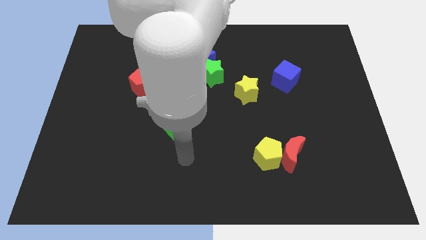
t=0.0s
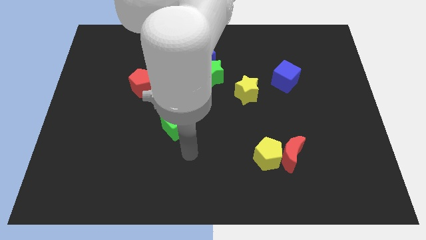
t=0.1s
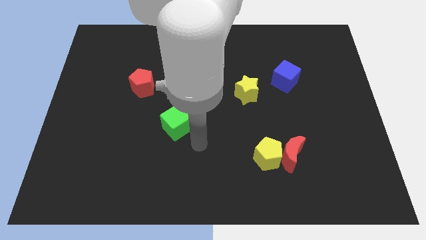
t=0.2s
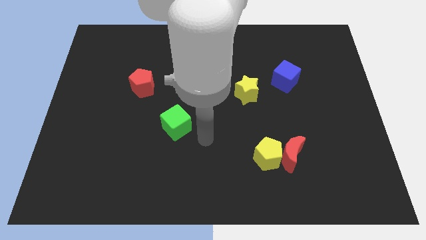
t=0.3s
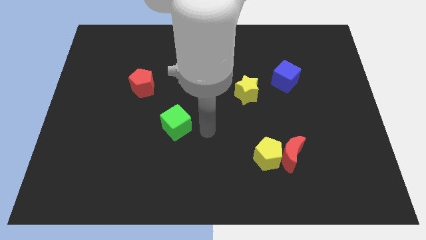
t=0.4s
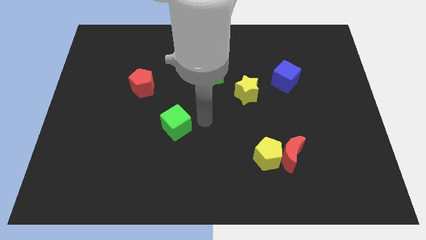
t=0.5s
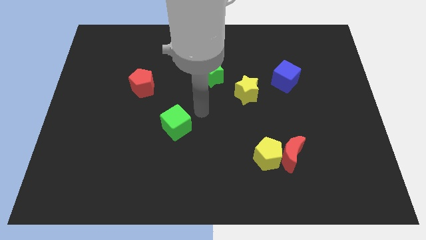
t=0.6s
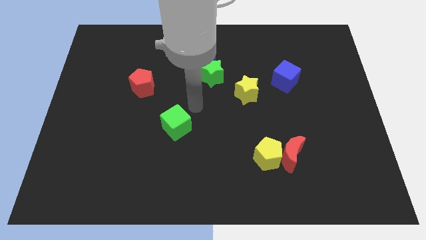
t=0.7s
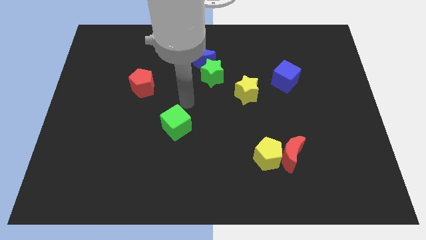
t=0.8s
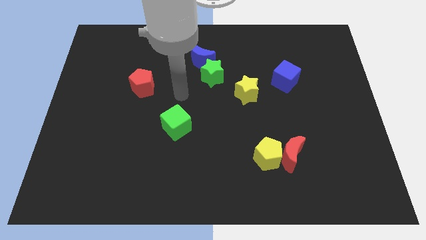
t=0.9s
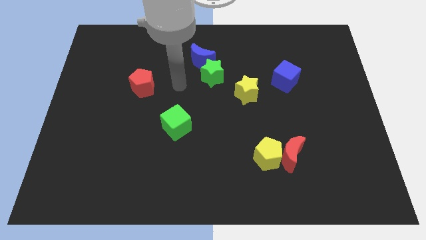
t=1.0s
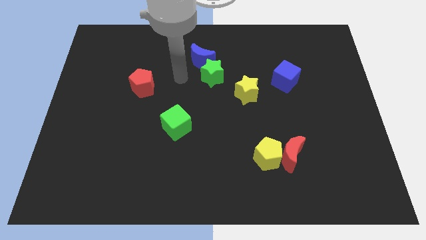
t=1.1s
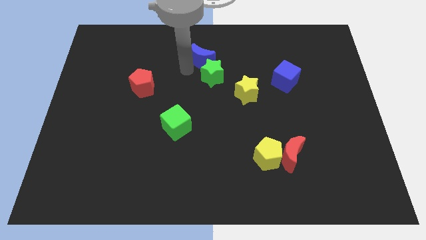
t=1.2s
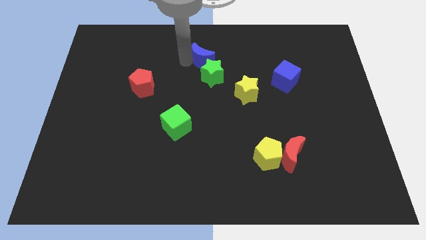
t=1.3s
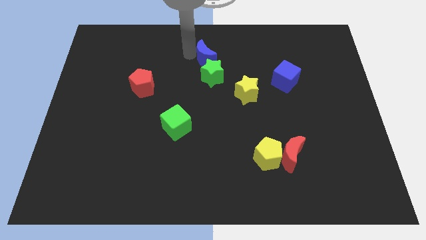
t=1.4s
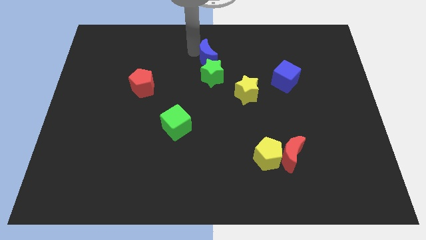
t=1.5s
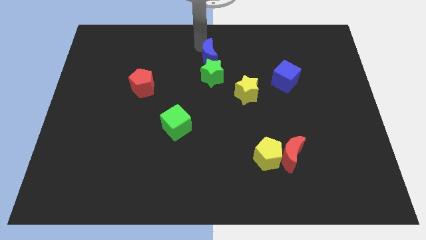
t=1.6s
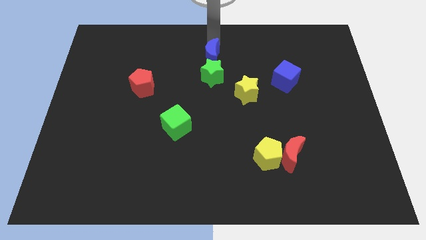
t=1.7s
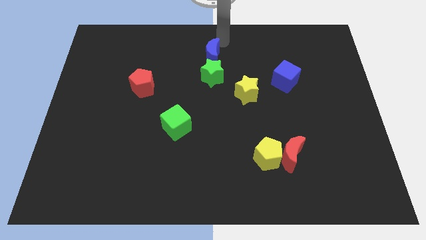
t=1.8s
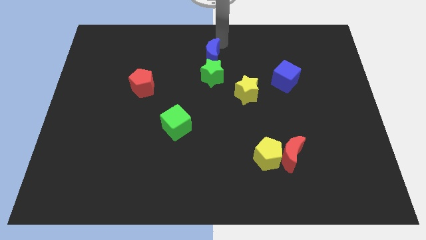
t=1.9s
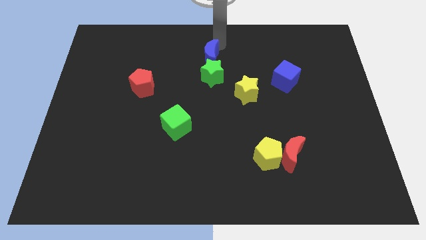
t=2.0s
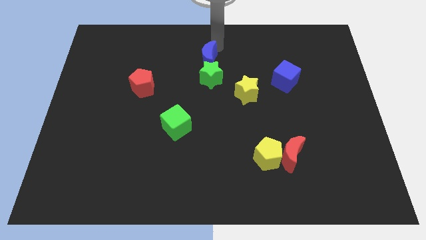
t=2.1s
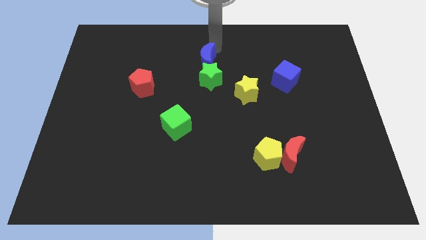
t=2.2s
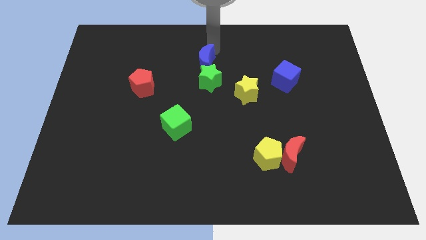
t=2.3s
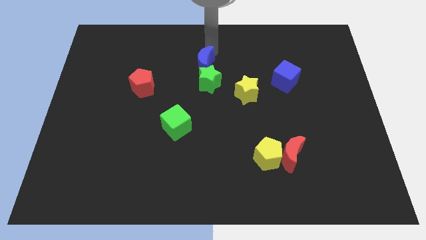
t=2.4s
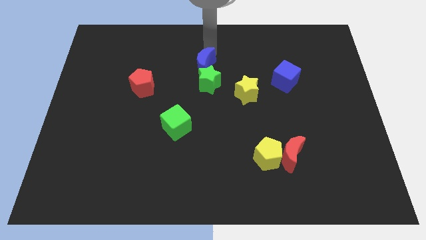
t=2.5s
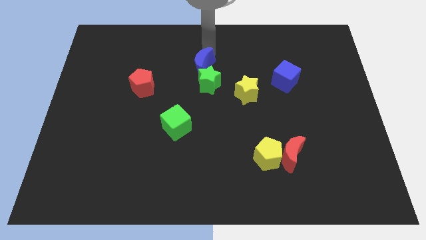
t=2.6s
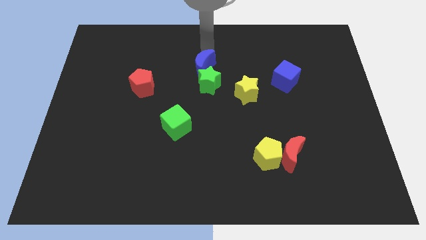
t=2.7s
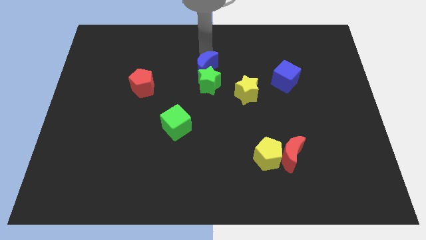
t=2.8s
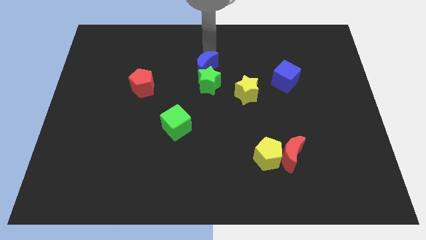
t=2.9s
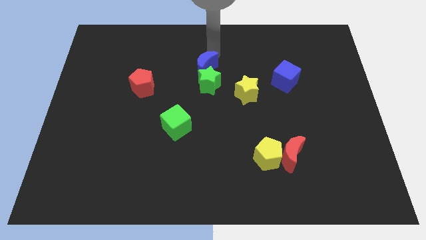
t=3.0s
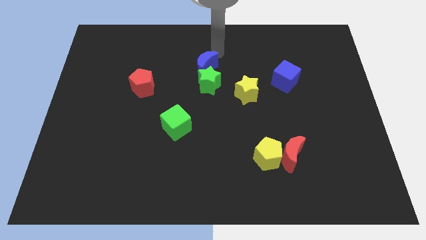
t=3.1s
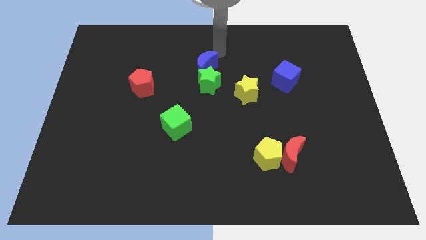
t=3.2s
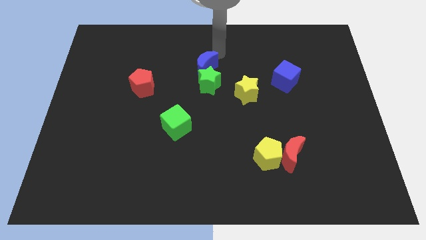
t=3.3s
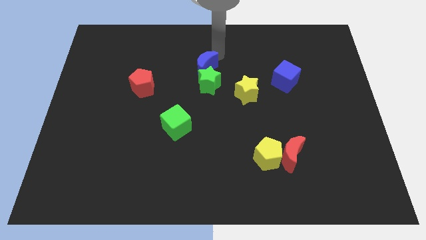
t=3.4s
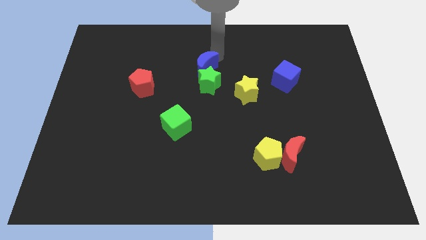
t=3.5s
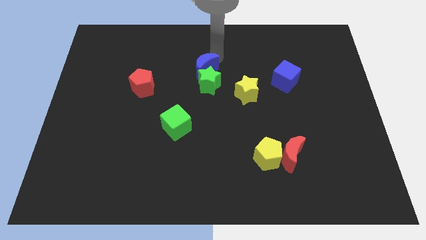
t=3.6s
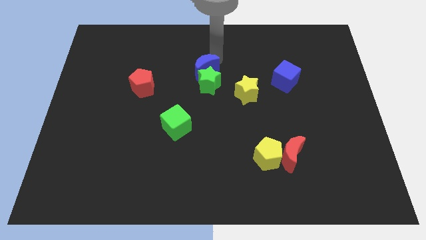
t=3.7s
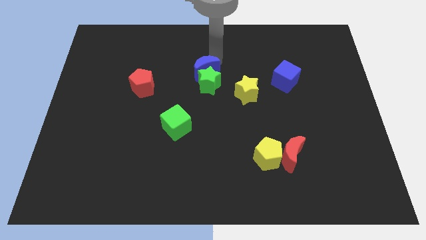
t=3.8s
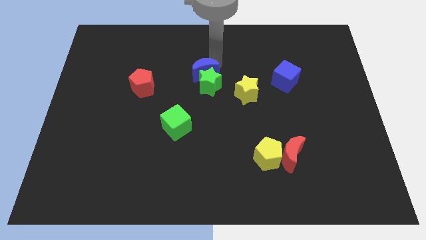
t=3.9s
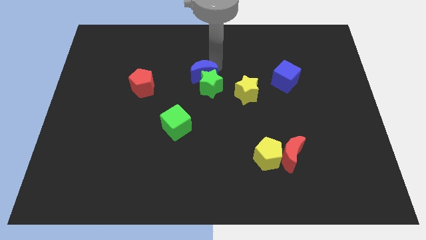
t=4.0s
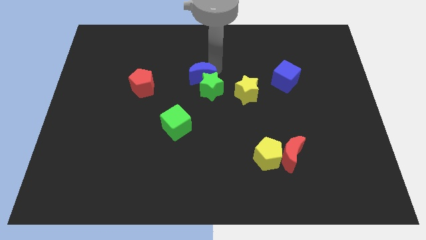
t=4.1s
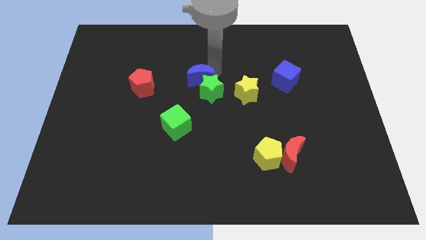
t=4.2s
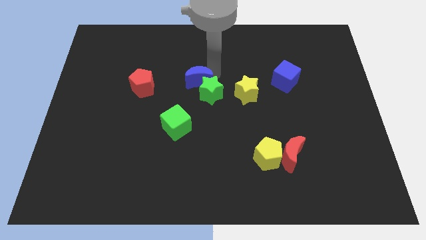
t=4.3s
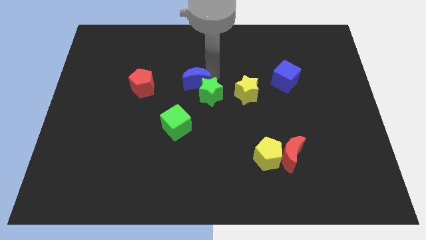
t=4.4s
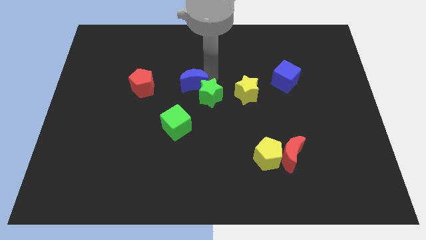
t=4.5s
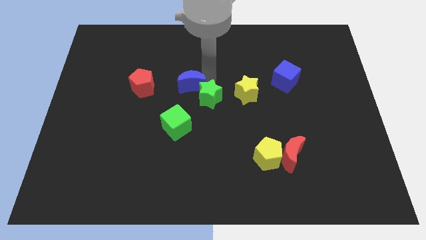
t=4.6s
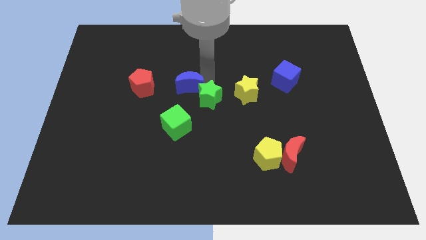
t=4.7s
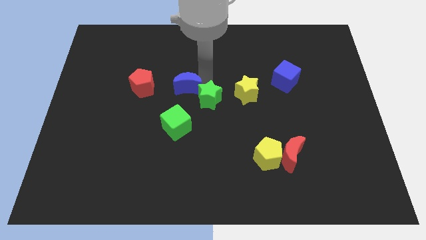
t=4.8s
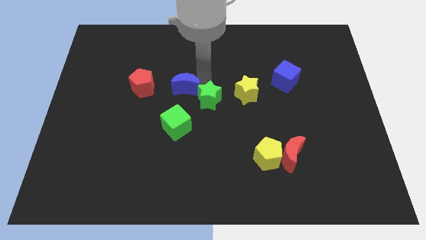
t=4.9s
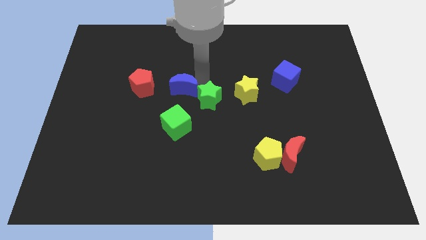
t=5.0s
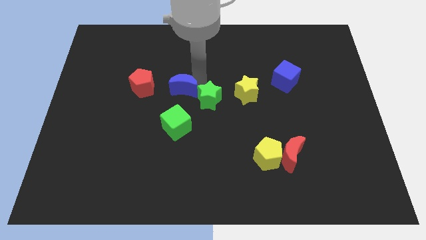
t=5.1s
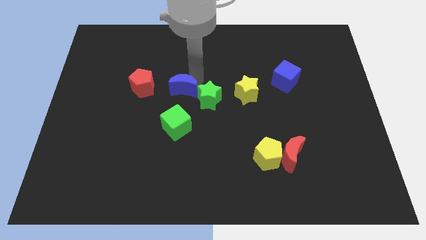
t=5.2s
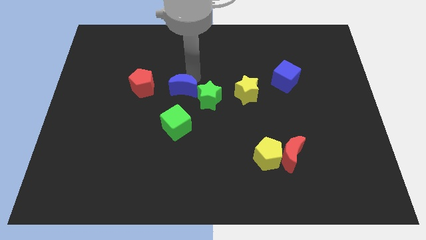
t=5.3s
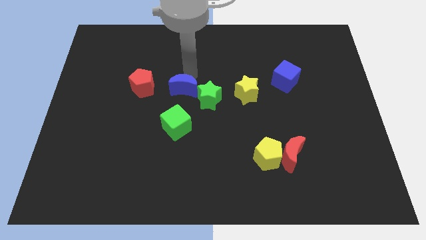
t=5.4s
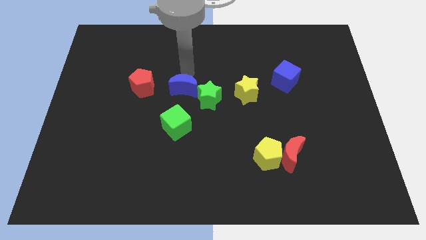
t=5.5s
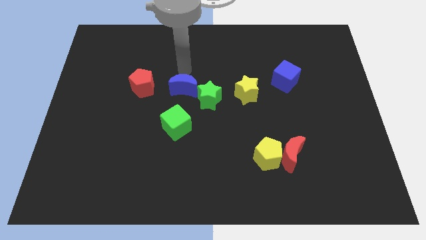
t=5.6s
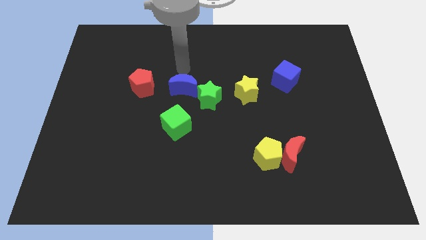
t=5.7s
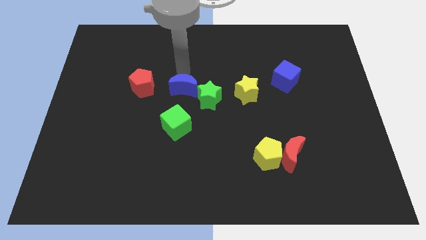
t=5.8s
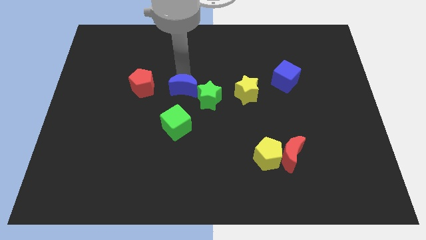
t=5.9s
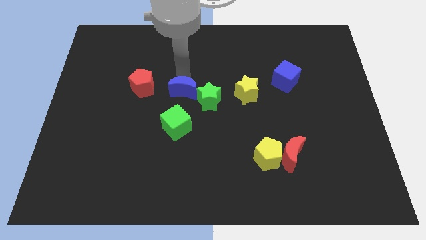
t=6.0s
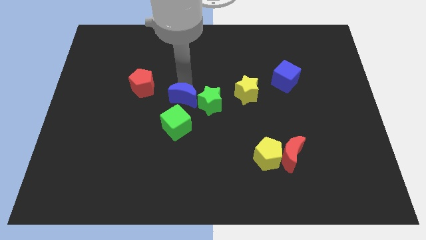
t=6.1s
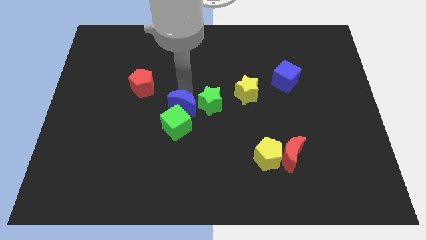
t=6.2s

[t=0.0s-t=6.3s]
put the blue moon close to the green cube

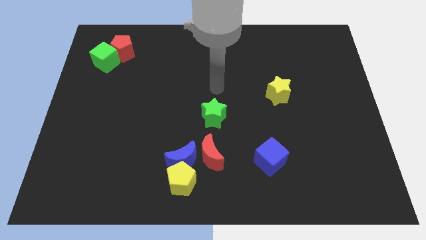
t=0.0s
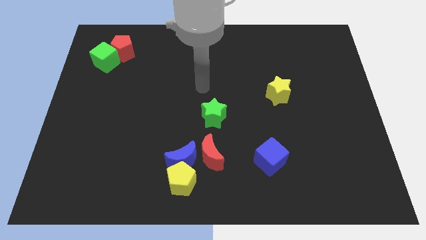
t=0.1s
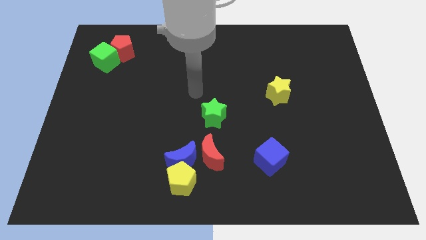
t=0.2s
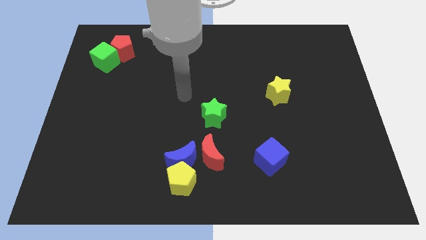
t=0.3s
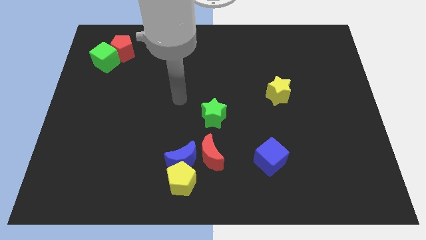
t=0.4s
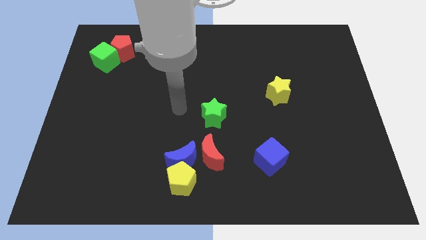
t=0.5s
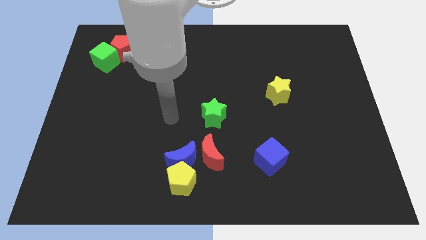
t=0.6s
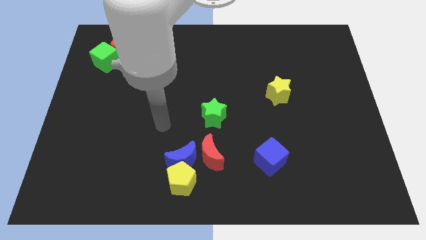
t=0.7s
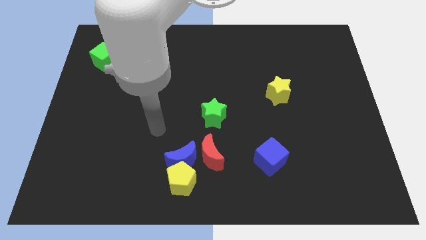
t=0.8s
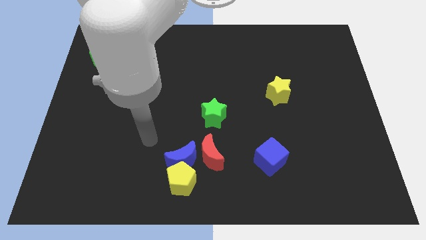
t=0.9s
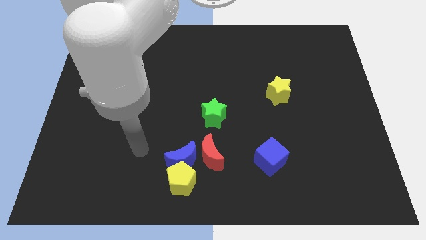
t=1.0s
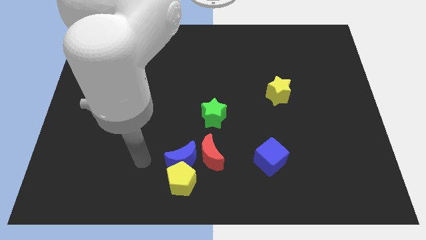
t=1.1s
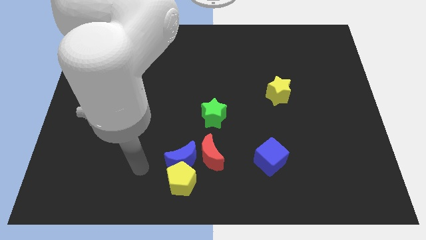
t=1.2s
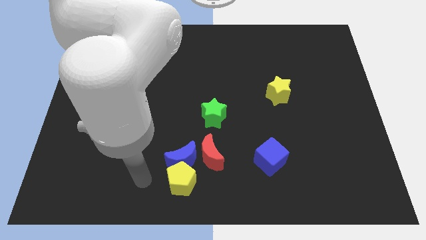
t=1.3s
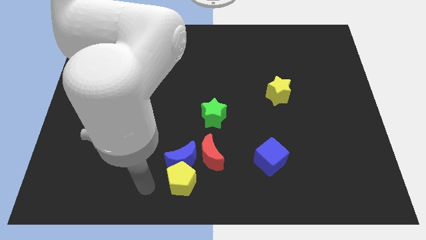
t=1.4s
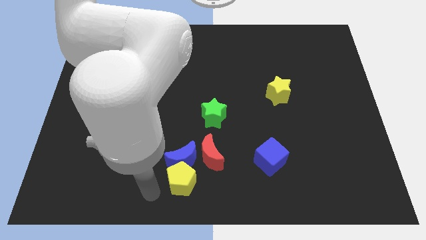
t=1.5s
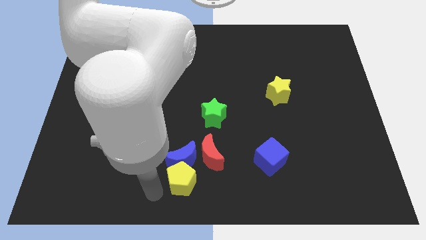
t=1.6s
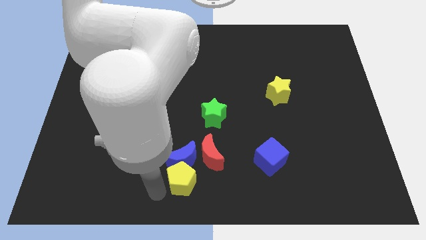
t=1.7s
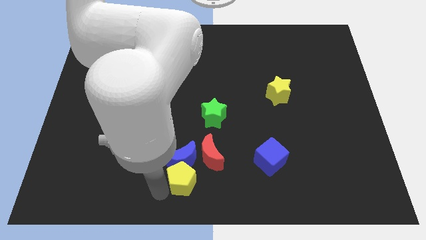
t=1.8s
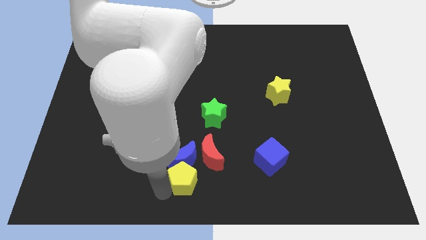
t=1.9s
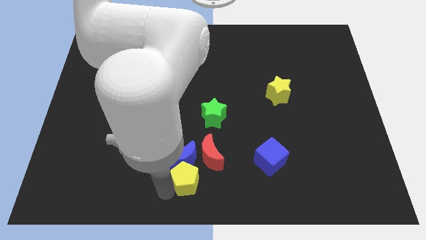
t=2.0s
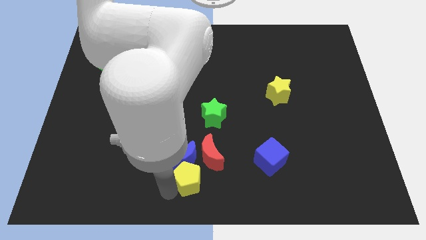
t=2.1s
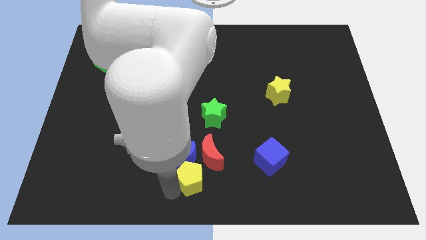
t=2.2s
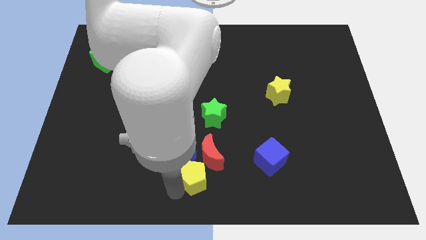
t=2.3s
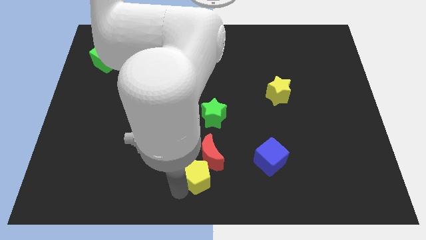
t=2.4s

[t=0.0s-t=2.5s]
push the yellow pentagon to the red moon
